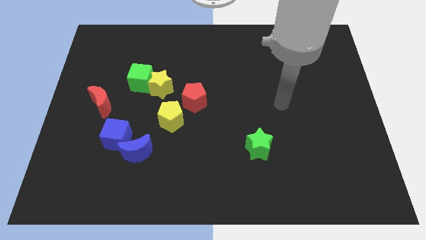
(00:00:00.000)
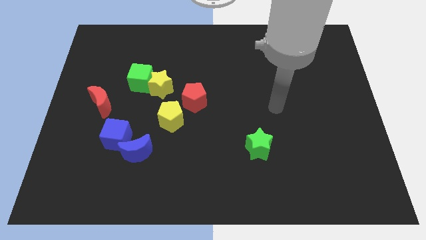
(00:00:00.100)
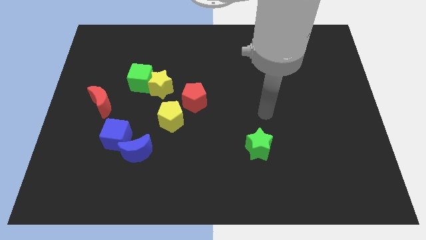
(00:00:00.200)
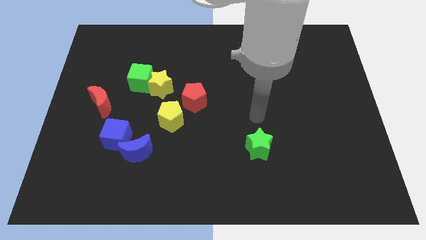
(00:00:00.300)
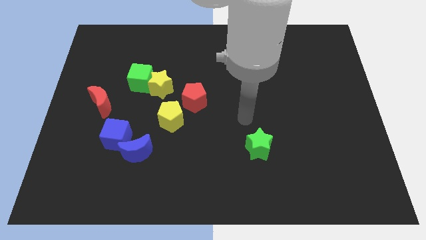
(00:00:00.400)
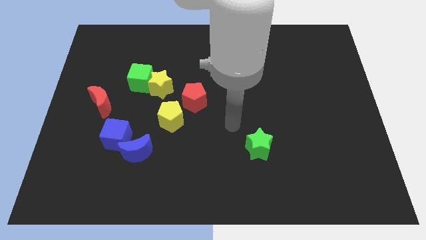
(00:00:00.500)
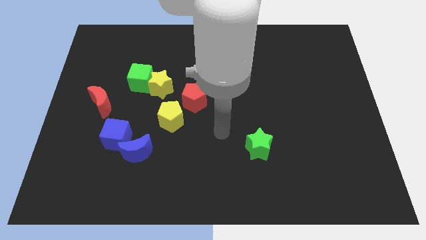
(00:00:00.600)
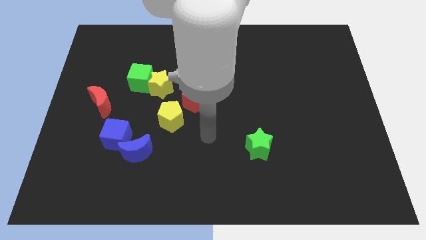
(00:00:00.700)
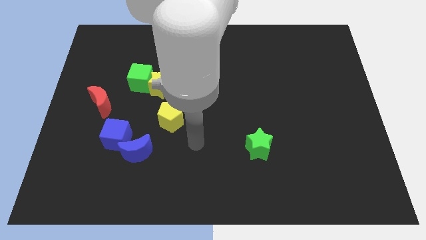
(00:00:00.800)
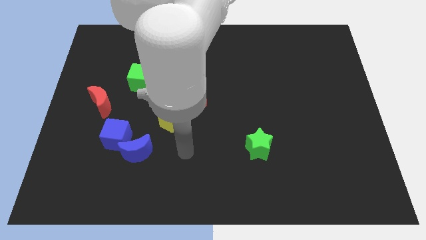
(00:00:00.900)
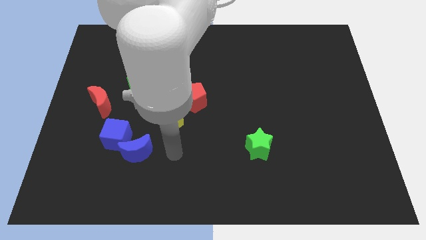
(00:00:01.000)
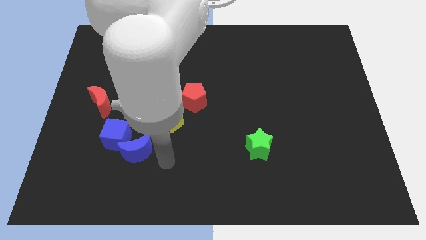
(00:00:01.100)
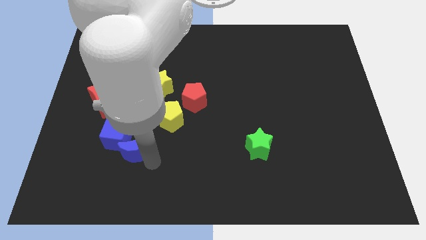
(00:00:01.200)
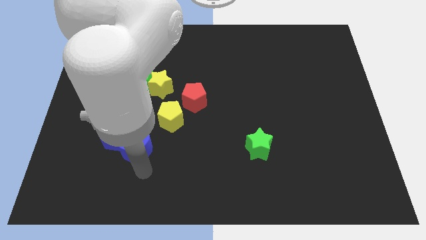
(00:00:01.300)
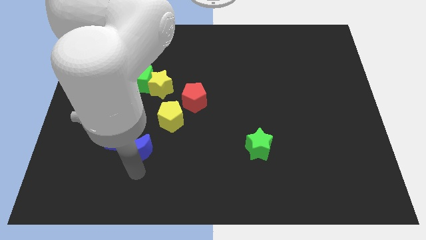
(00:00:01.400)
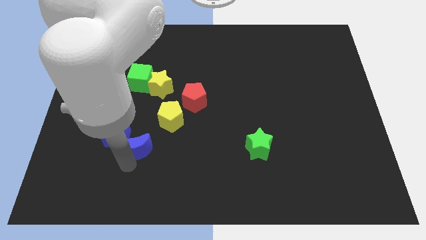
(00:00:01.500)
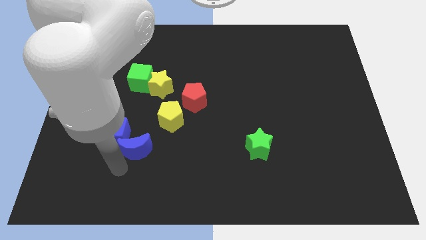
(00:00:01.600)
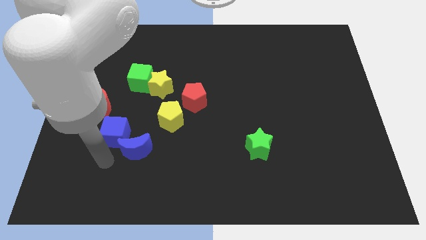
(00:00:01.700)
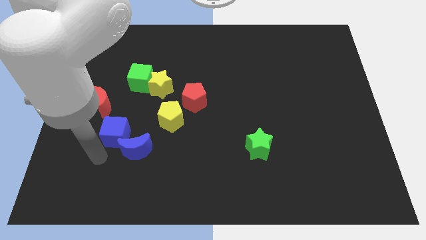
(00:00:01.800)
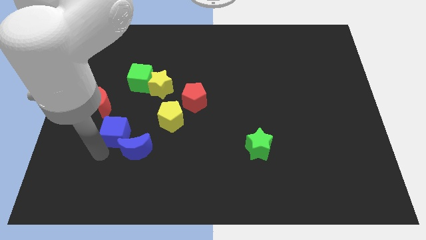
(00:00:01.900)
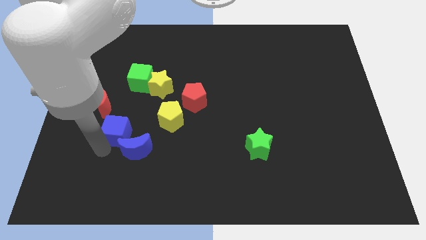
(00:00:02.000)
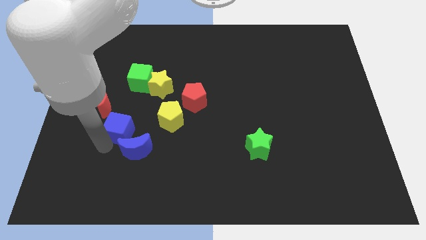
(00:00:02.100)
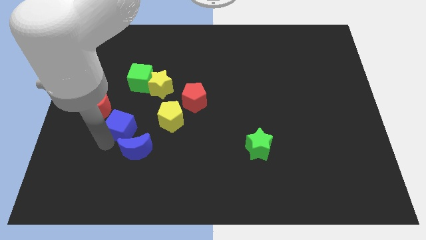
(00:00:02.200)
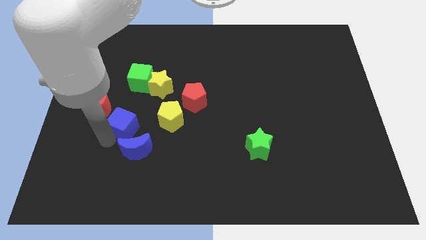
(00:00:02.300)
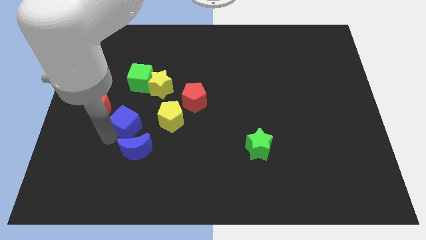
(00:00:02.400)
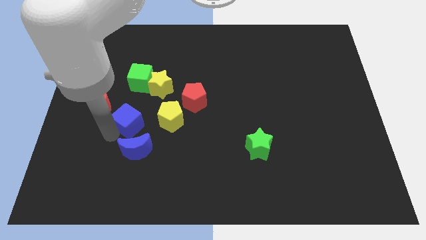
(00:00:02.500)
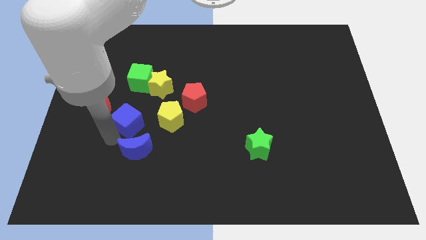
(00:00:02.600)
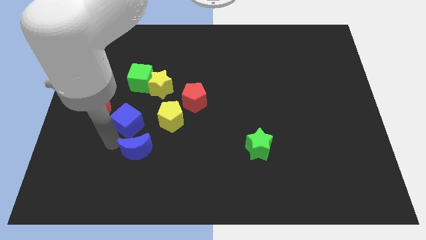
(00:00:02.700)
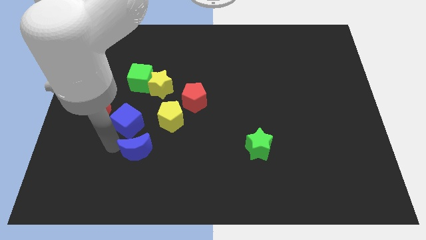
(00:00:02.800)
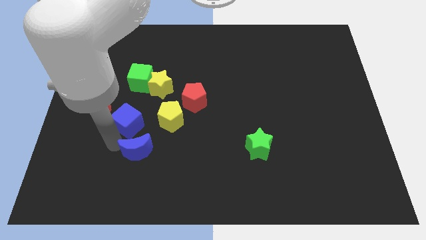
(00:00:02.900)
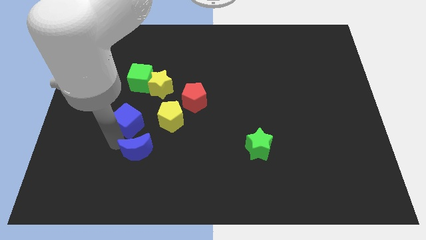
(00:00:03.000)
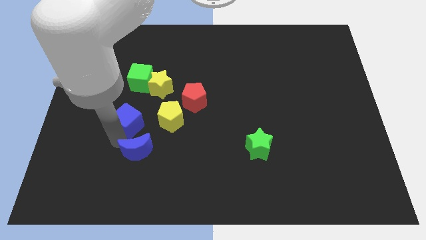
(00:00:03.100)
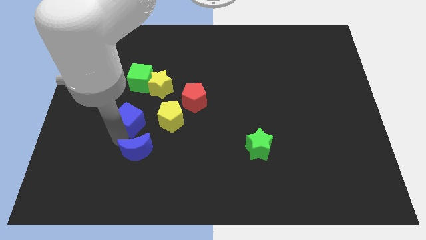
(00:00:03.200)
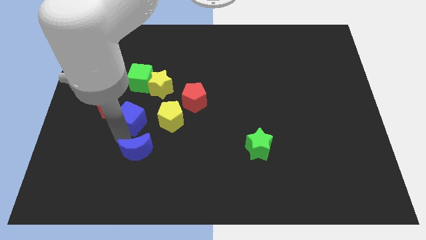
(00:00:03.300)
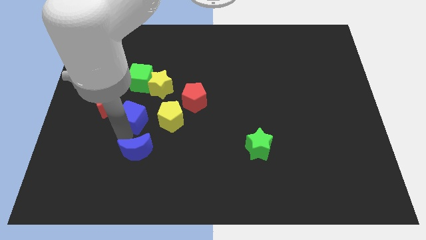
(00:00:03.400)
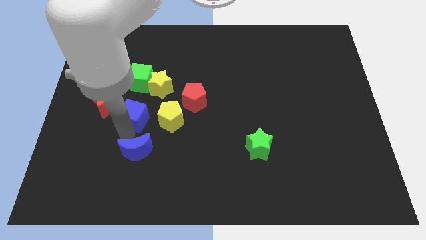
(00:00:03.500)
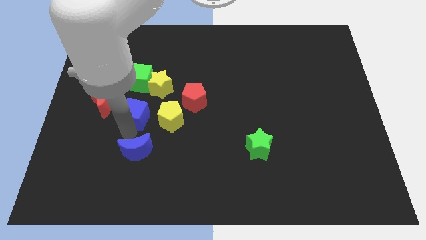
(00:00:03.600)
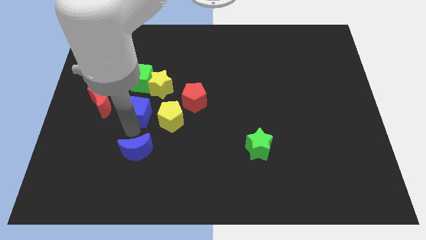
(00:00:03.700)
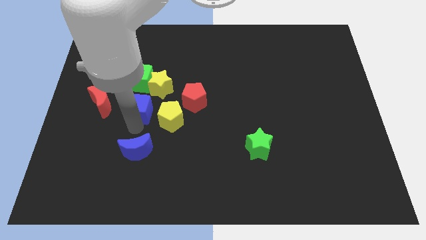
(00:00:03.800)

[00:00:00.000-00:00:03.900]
push the blue cube up somewhat

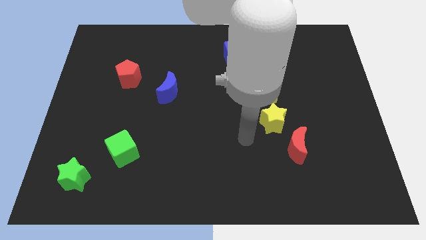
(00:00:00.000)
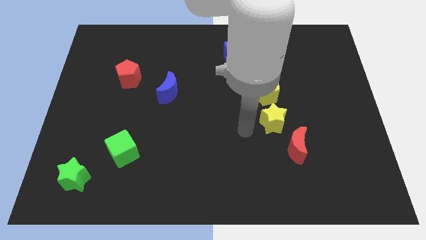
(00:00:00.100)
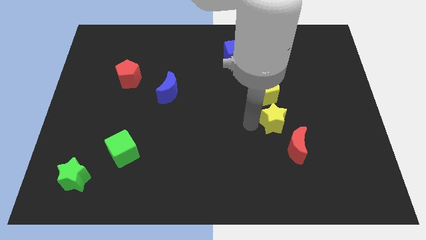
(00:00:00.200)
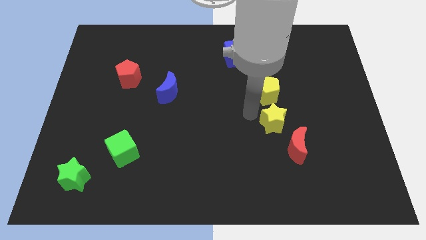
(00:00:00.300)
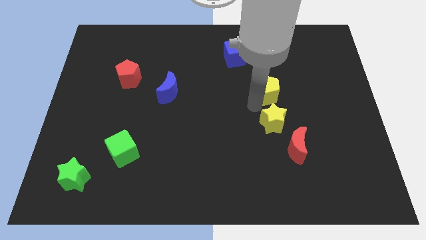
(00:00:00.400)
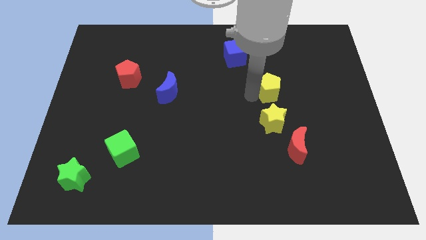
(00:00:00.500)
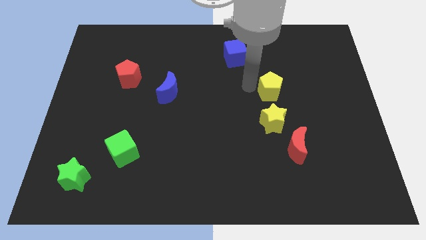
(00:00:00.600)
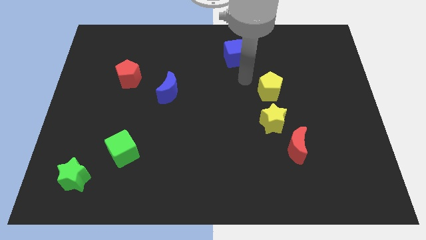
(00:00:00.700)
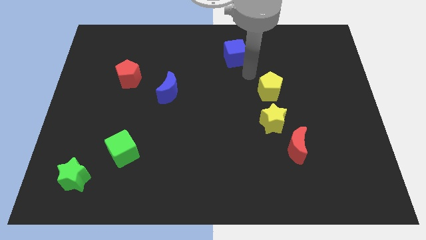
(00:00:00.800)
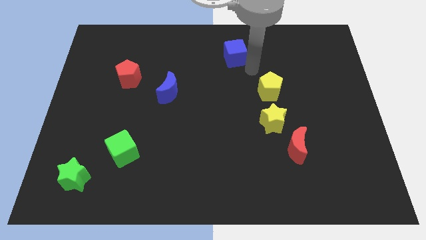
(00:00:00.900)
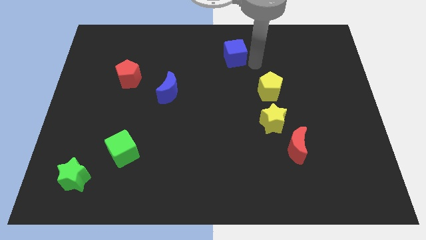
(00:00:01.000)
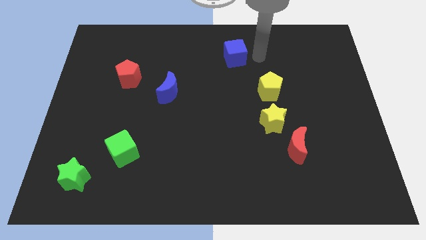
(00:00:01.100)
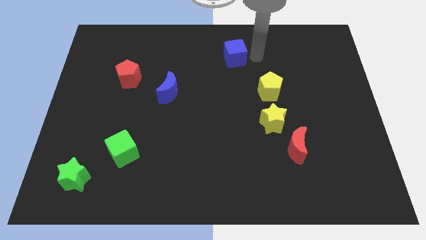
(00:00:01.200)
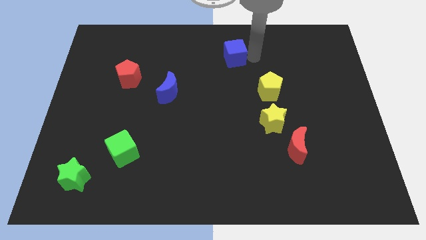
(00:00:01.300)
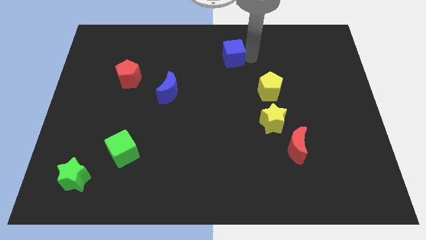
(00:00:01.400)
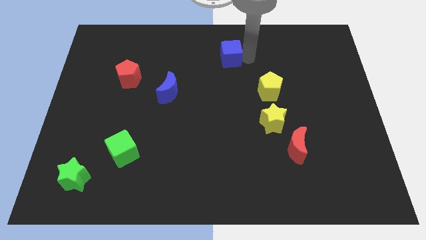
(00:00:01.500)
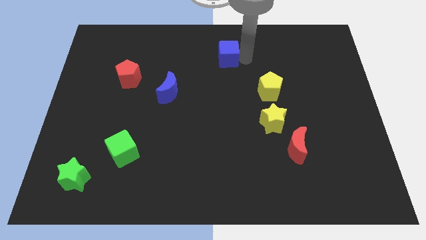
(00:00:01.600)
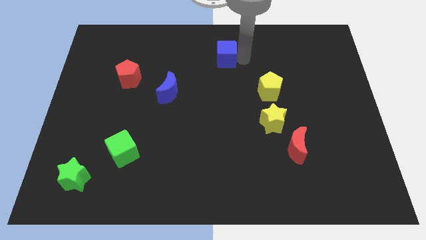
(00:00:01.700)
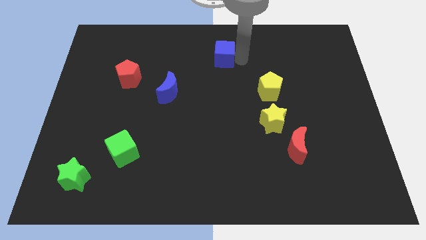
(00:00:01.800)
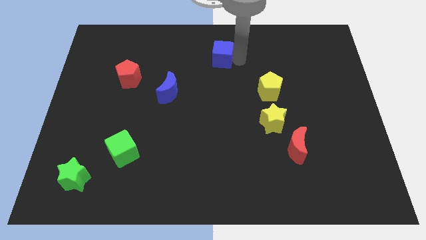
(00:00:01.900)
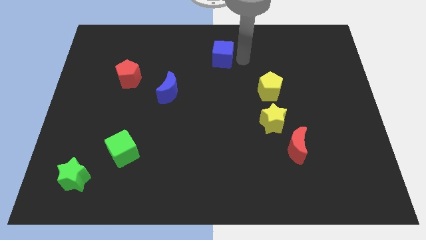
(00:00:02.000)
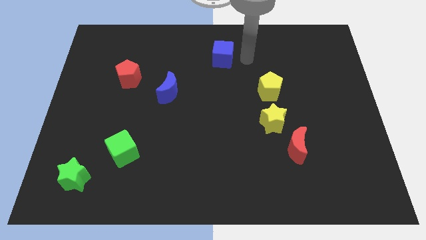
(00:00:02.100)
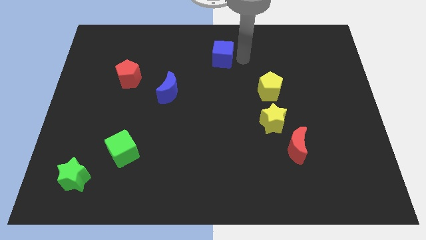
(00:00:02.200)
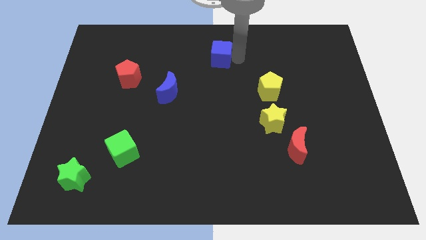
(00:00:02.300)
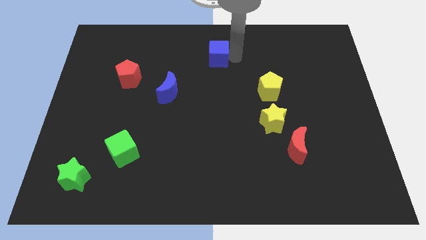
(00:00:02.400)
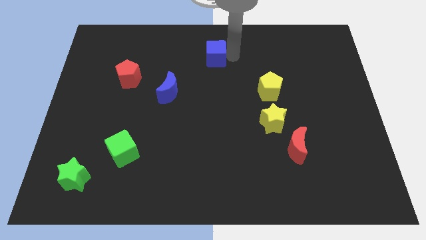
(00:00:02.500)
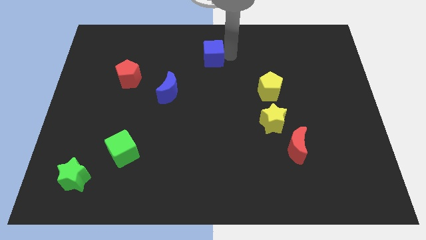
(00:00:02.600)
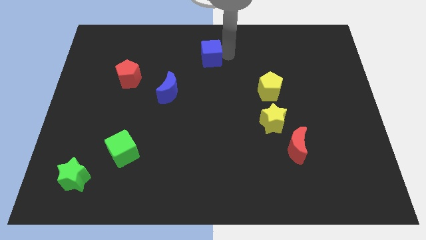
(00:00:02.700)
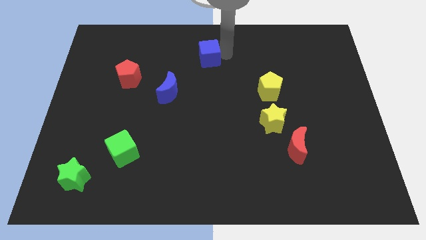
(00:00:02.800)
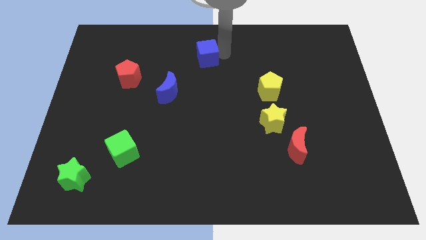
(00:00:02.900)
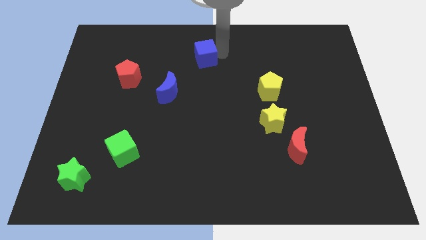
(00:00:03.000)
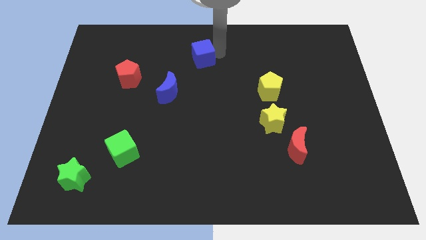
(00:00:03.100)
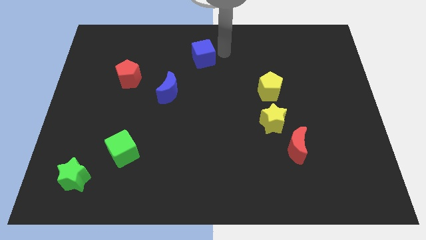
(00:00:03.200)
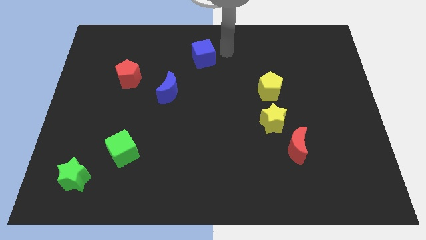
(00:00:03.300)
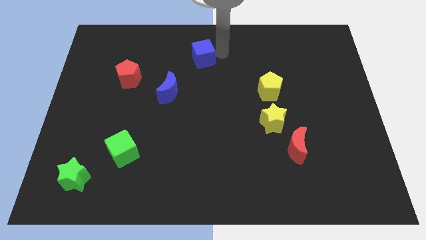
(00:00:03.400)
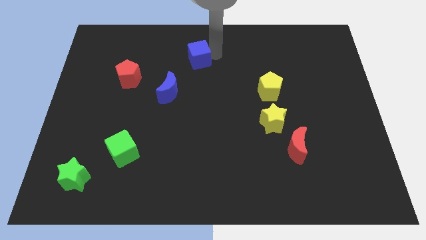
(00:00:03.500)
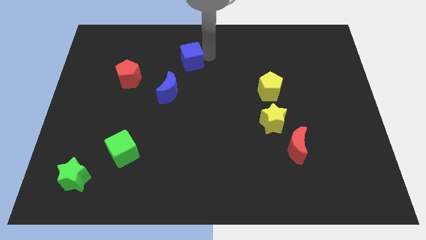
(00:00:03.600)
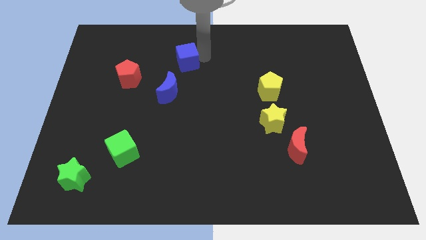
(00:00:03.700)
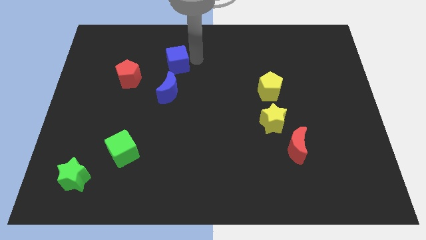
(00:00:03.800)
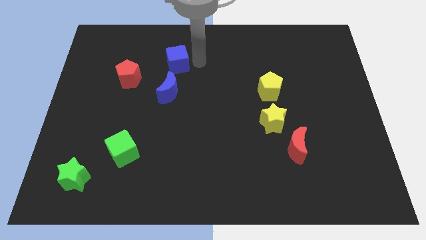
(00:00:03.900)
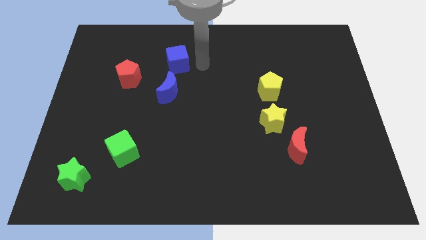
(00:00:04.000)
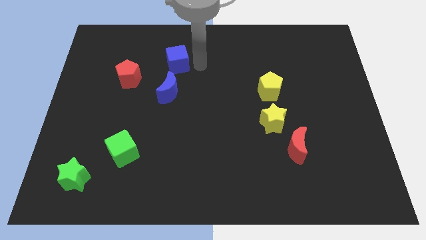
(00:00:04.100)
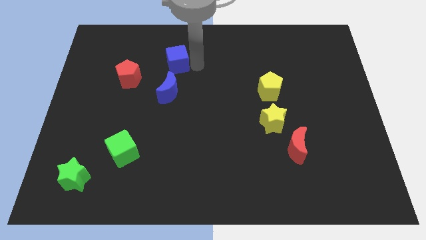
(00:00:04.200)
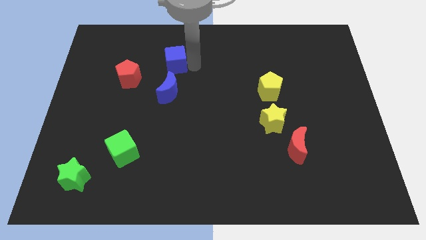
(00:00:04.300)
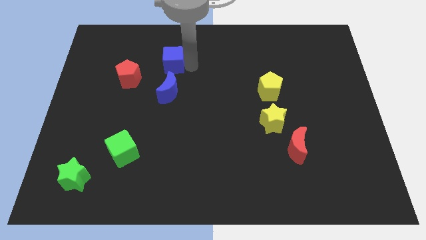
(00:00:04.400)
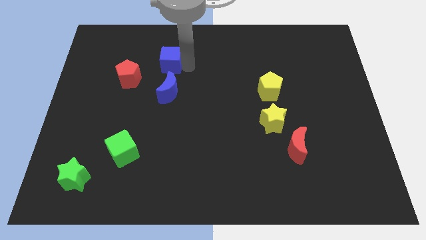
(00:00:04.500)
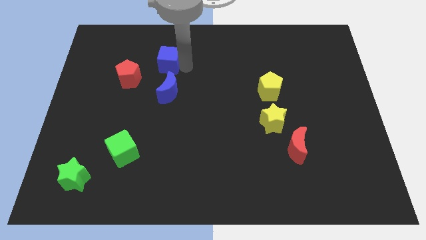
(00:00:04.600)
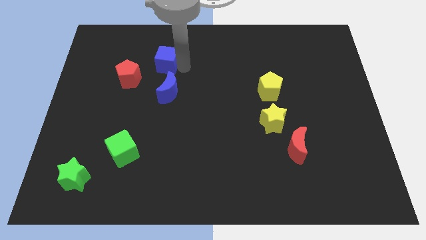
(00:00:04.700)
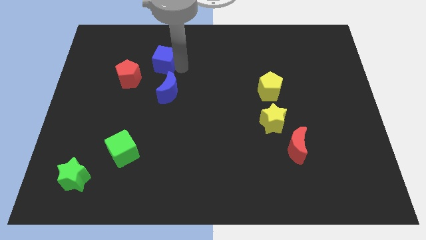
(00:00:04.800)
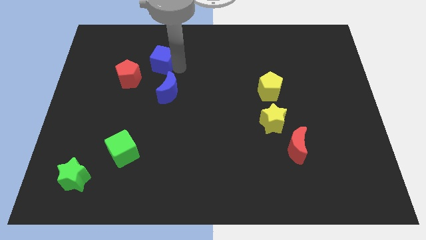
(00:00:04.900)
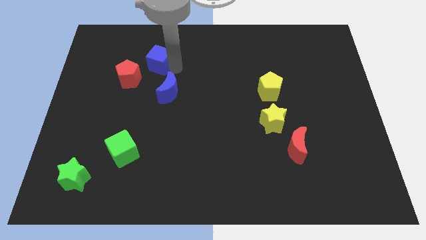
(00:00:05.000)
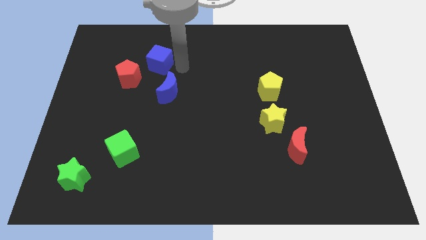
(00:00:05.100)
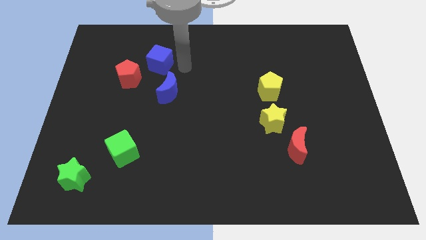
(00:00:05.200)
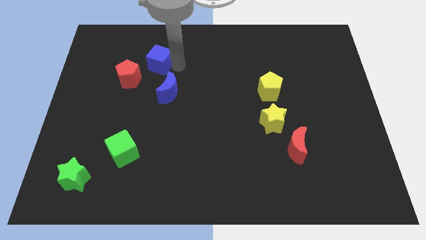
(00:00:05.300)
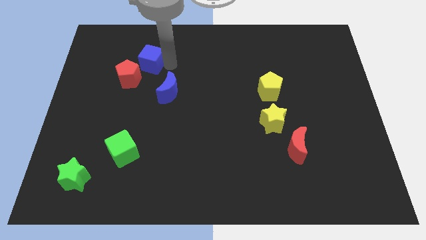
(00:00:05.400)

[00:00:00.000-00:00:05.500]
move the blue cube to the left
